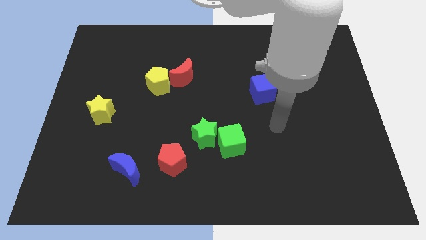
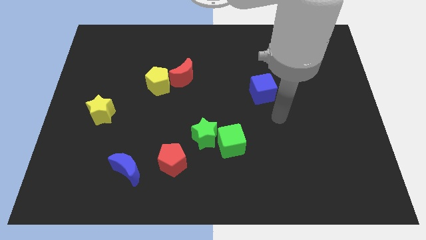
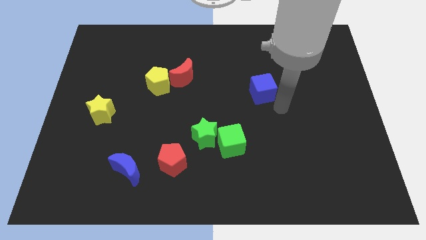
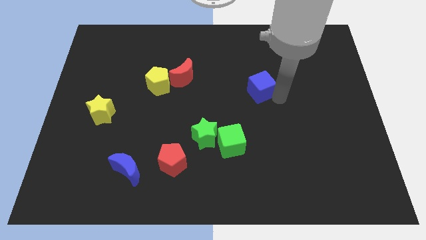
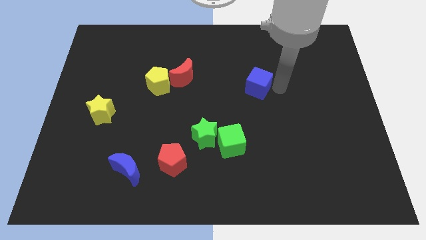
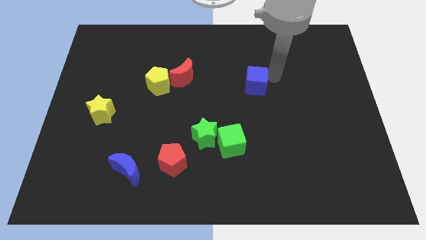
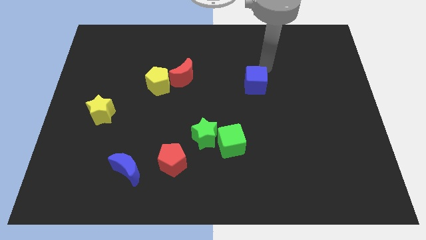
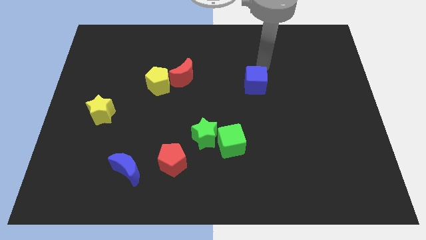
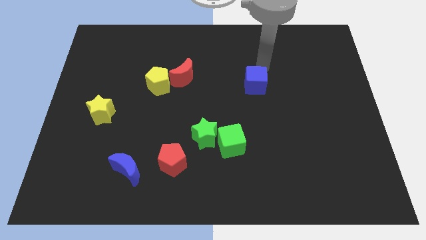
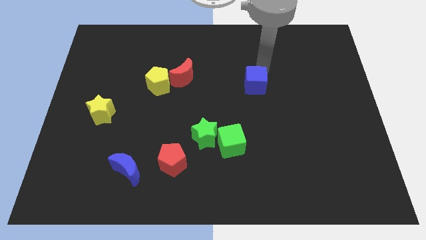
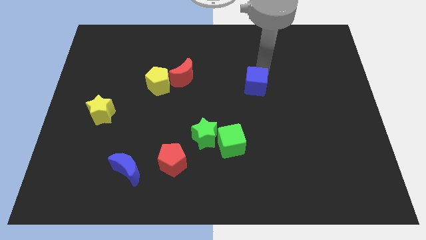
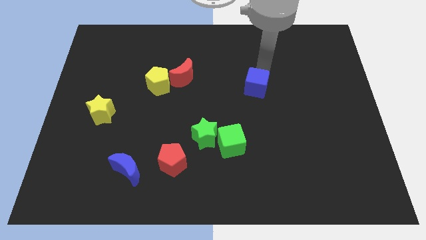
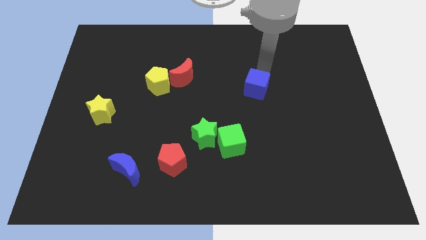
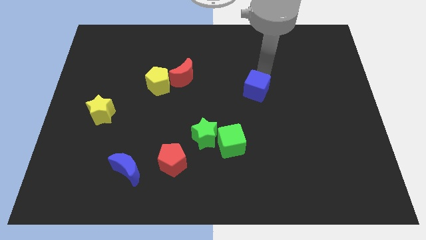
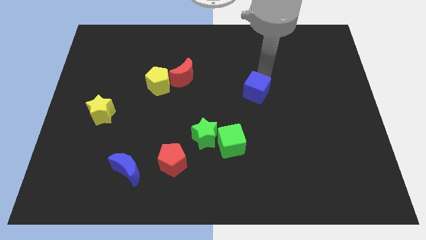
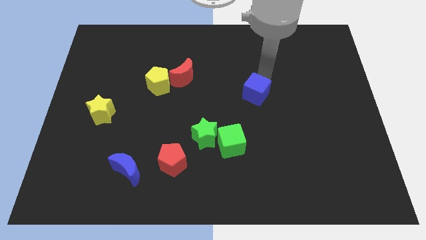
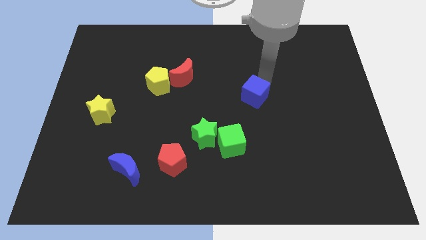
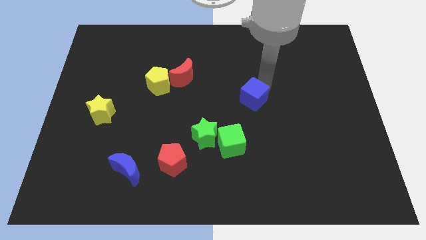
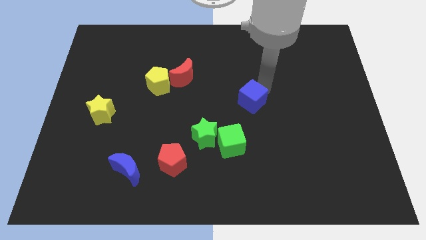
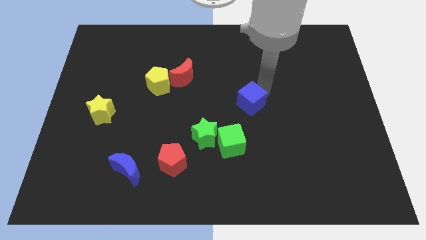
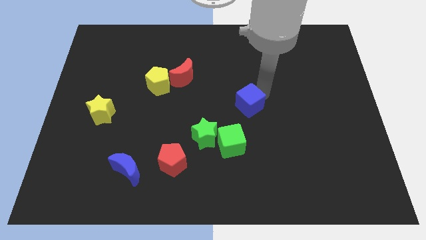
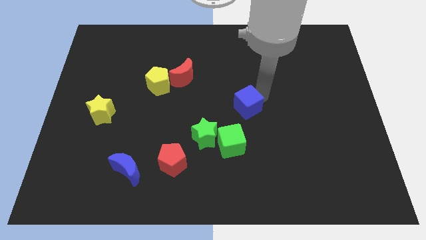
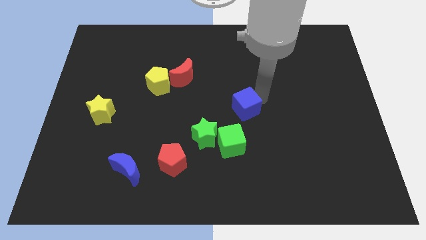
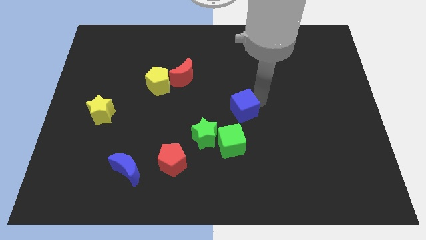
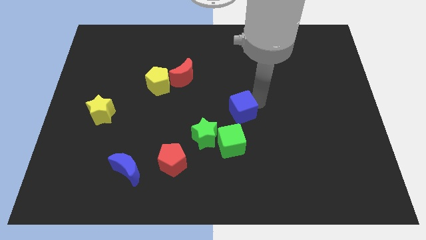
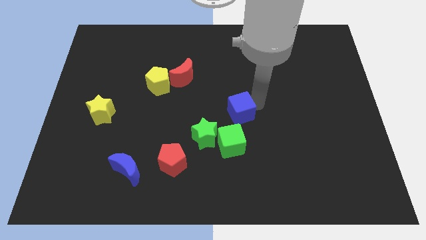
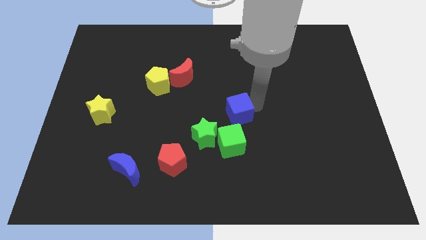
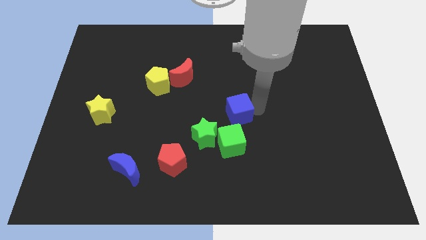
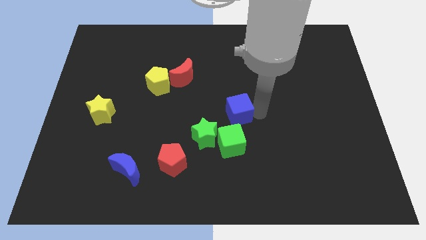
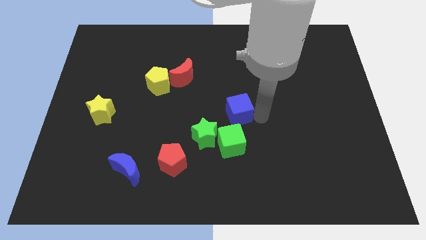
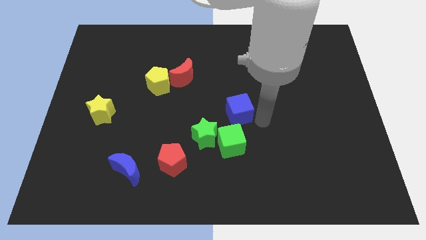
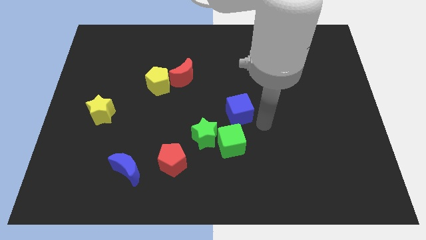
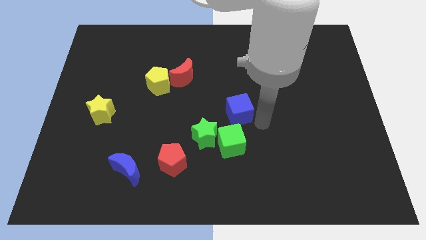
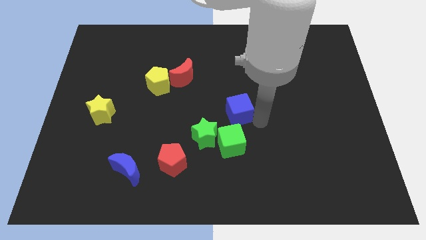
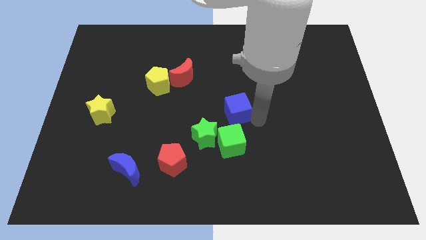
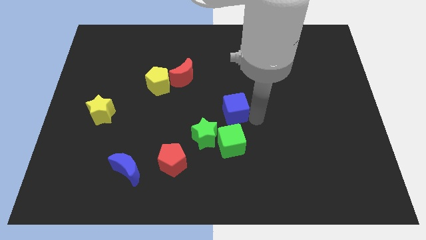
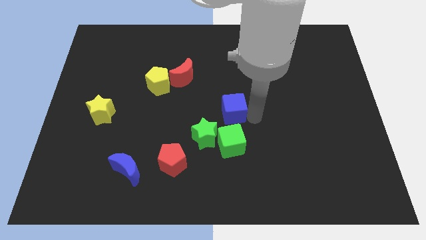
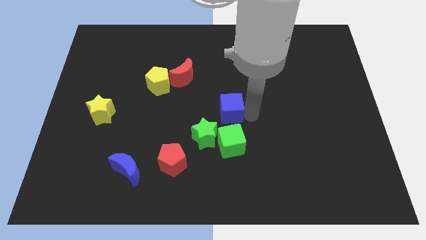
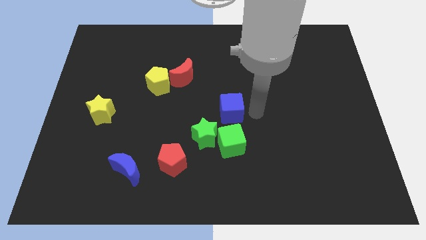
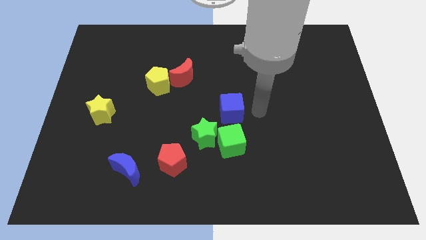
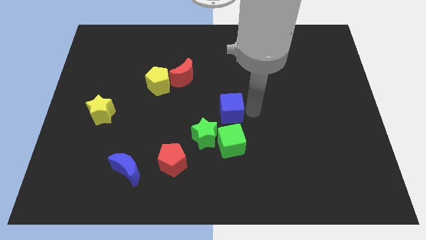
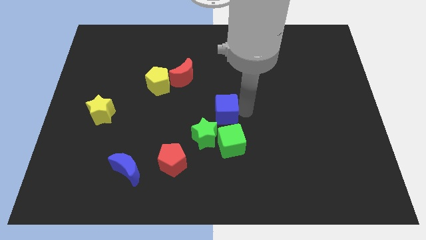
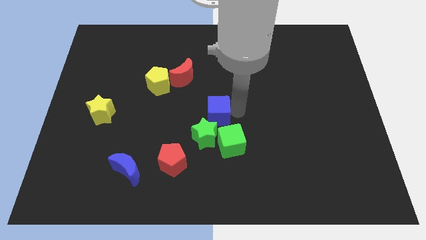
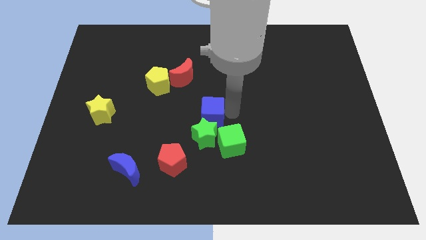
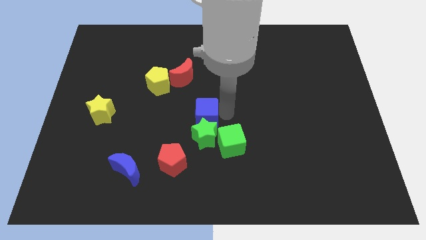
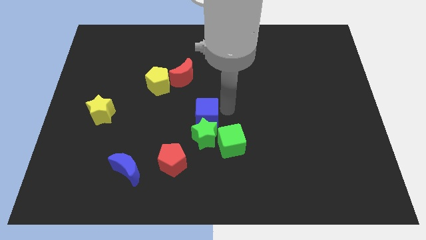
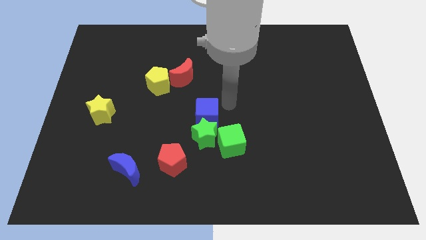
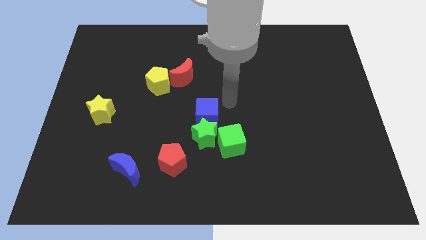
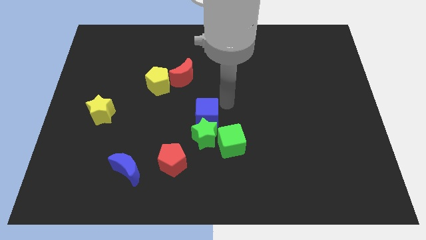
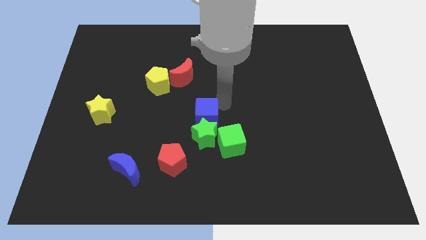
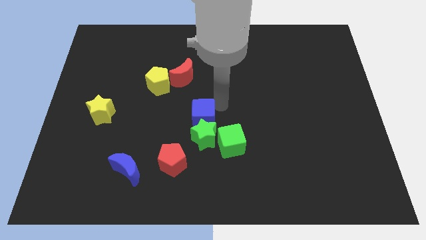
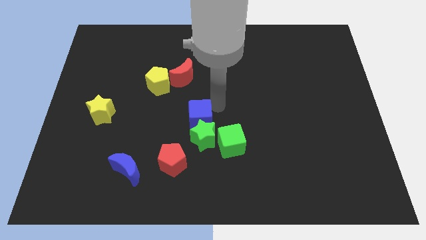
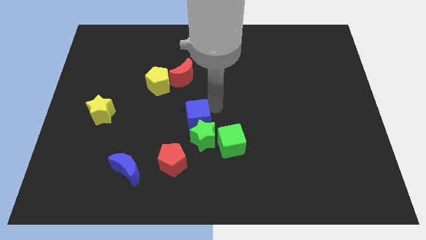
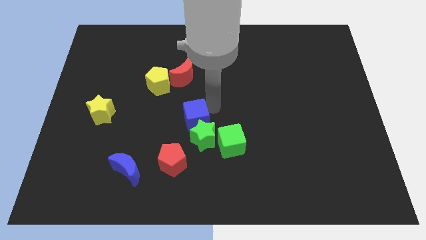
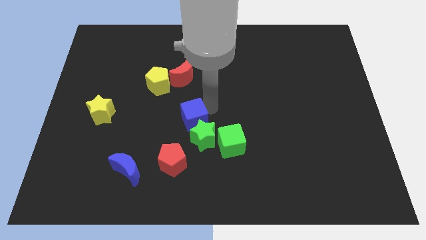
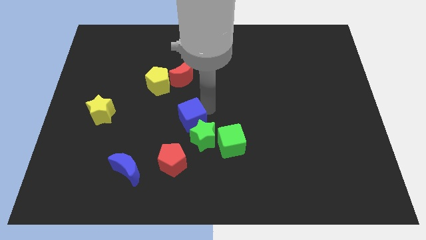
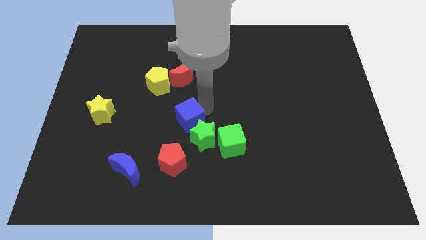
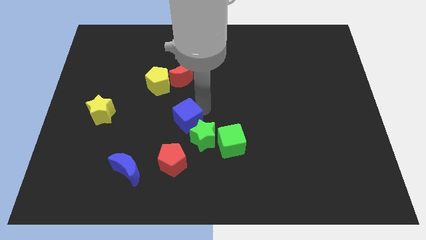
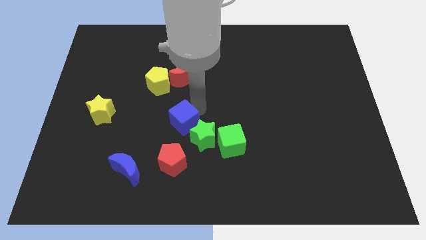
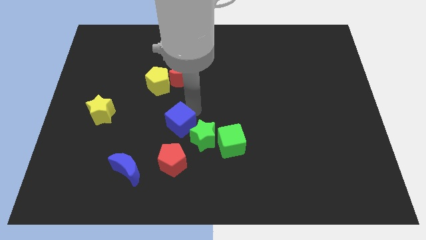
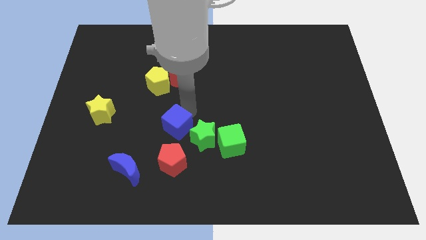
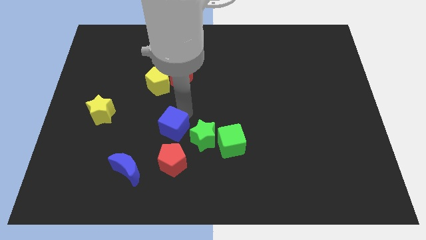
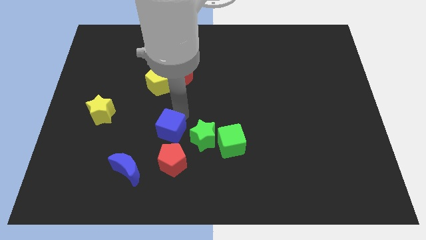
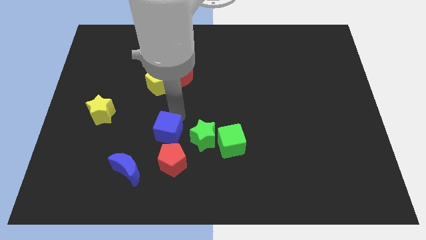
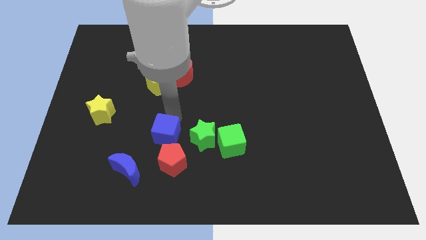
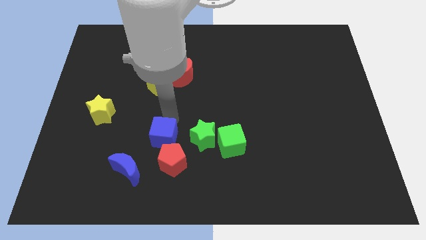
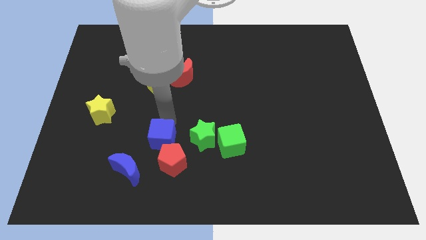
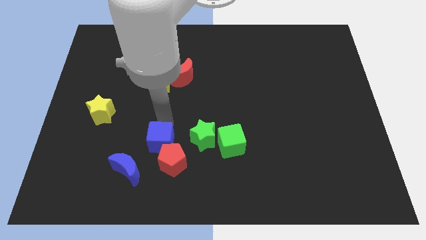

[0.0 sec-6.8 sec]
push the blue cube close to the red pentagon
